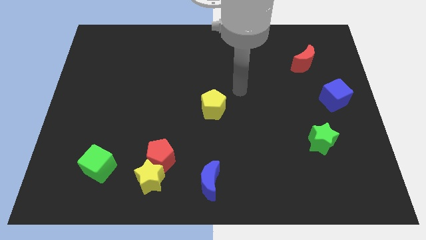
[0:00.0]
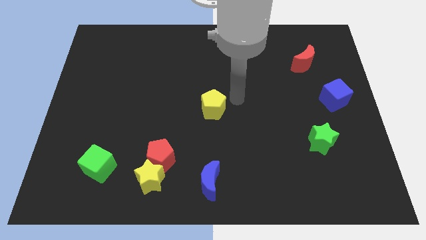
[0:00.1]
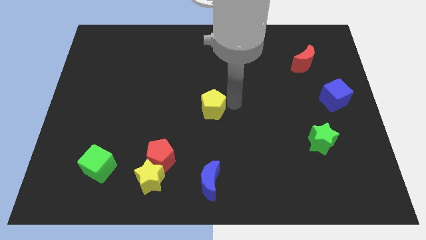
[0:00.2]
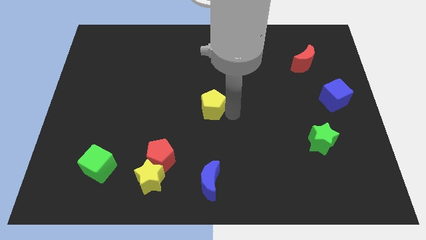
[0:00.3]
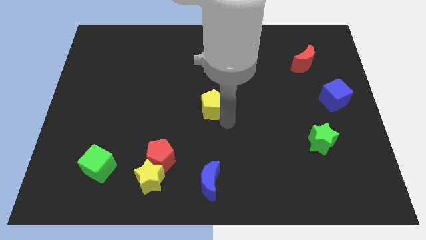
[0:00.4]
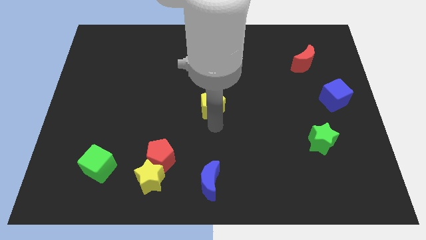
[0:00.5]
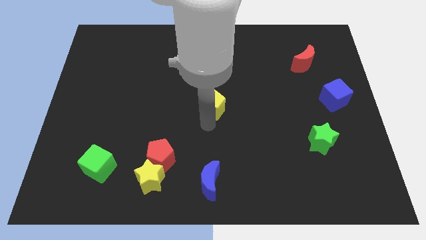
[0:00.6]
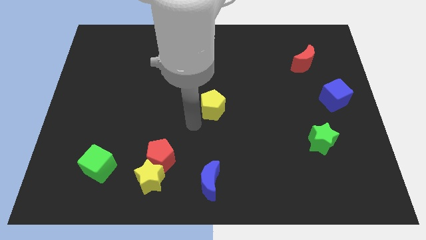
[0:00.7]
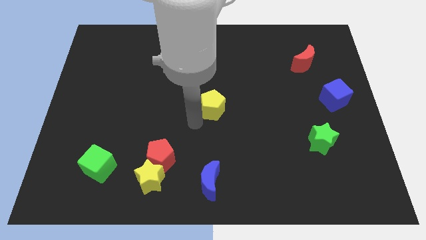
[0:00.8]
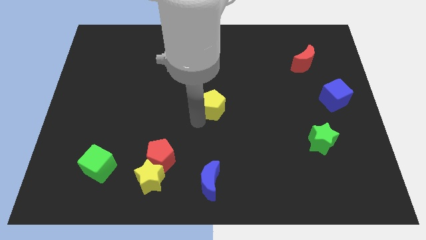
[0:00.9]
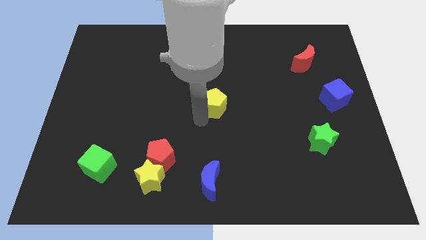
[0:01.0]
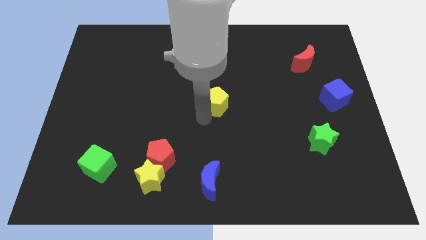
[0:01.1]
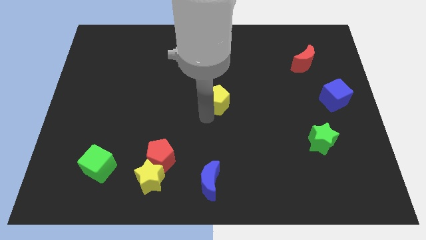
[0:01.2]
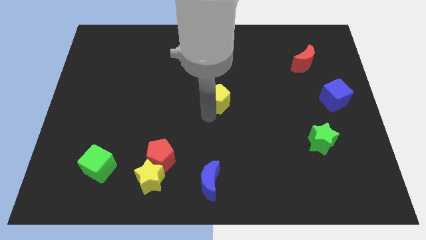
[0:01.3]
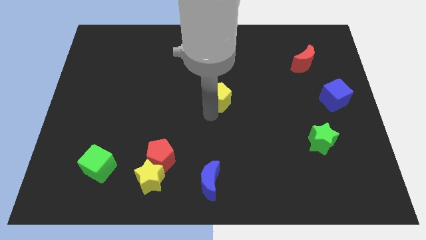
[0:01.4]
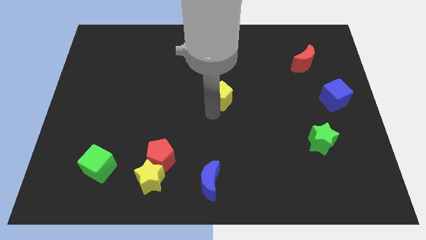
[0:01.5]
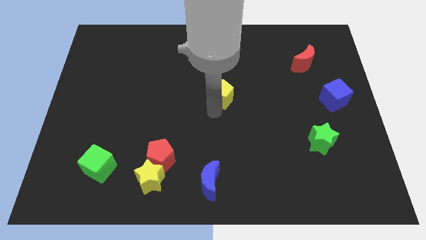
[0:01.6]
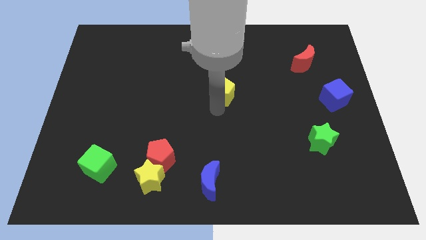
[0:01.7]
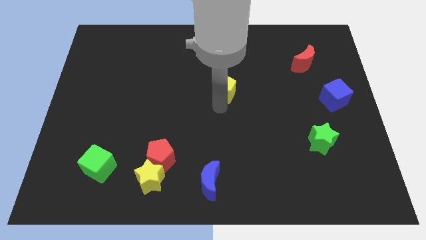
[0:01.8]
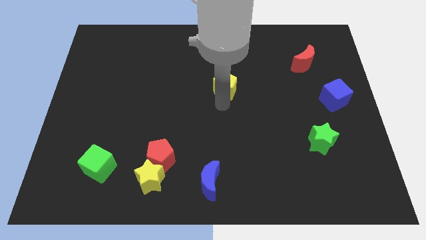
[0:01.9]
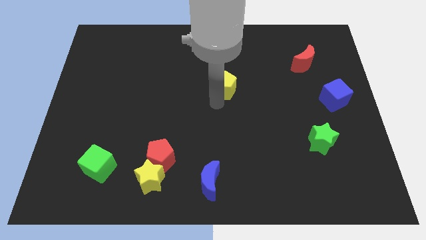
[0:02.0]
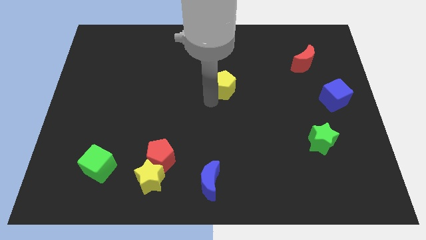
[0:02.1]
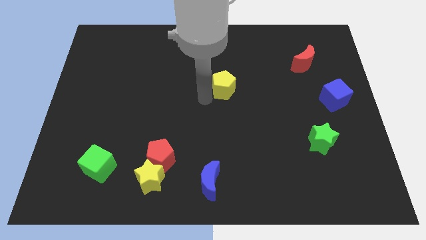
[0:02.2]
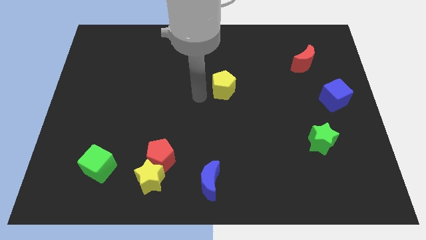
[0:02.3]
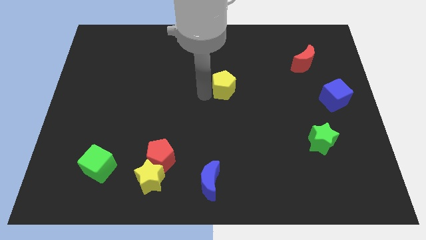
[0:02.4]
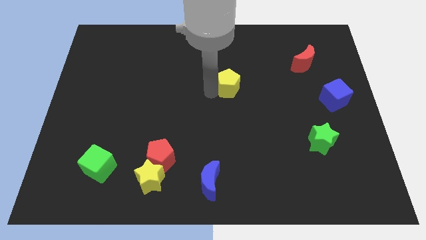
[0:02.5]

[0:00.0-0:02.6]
slightly move the yellow pentagon diagonally up and right

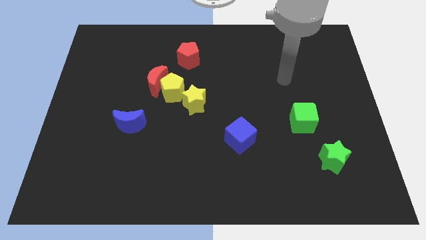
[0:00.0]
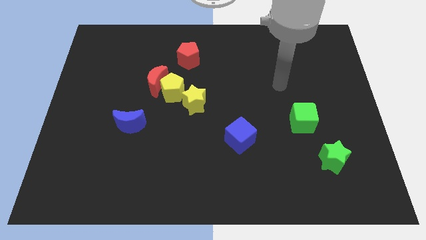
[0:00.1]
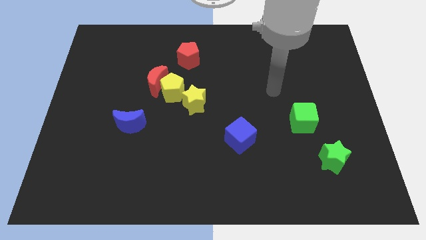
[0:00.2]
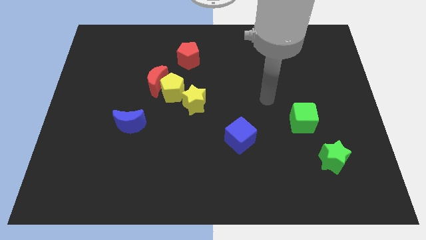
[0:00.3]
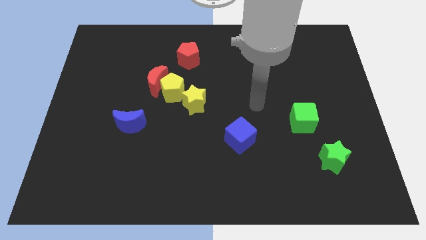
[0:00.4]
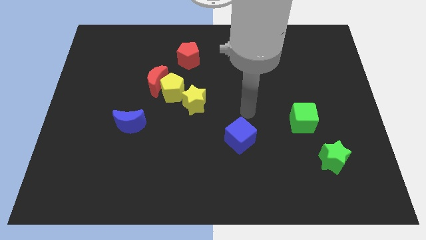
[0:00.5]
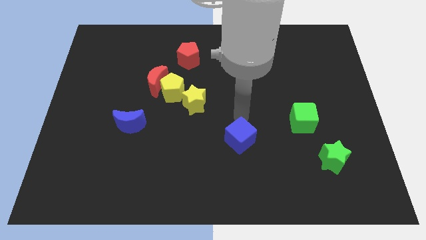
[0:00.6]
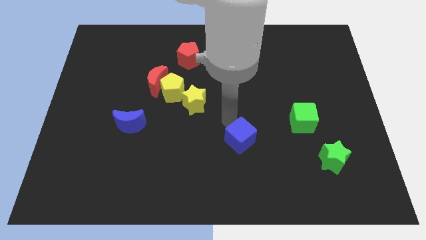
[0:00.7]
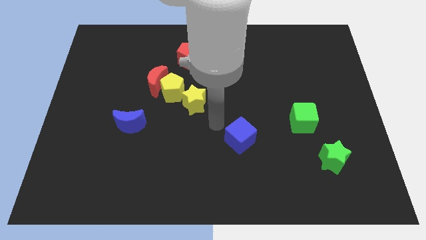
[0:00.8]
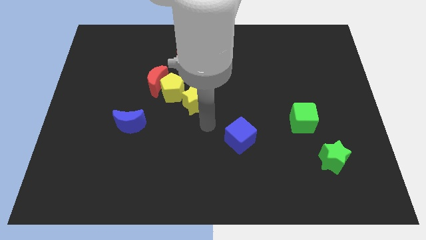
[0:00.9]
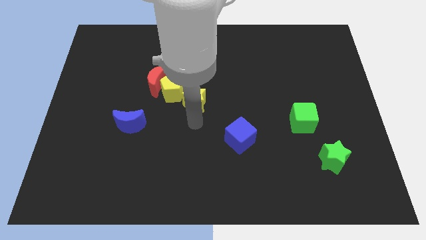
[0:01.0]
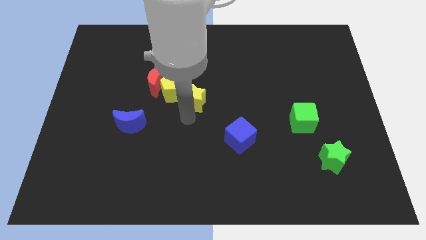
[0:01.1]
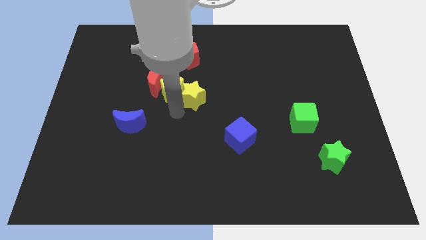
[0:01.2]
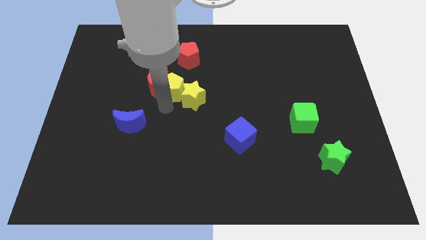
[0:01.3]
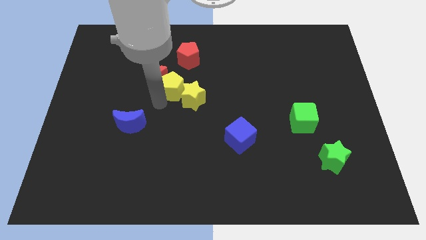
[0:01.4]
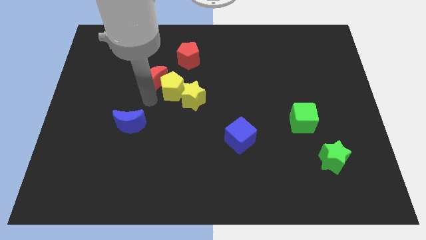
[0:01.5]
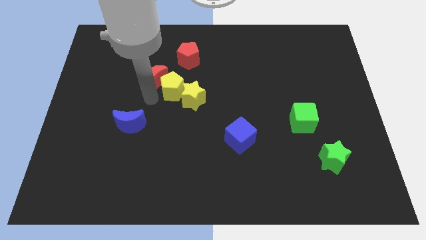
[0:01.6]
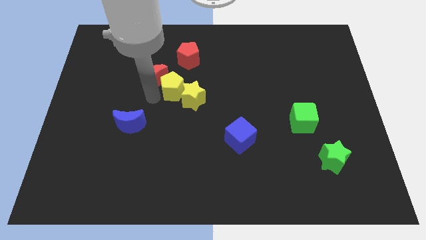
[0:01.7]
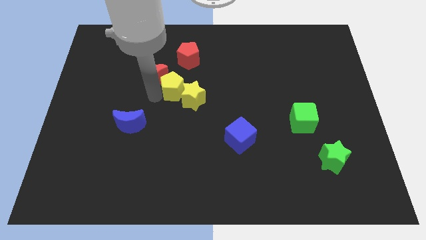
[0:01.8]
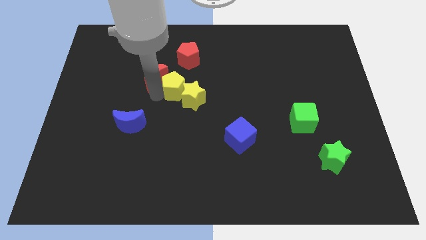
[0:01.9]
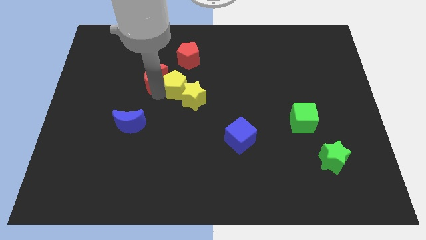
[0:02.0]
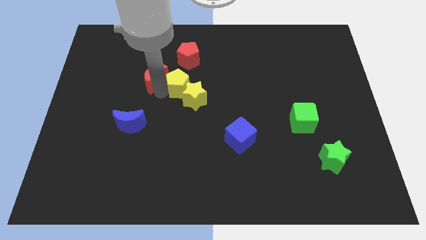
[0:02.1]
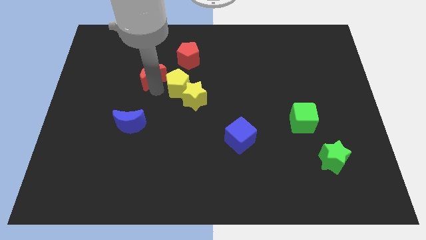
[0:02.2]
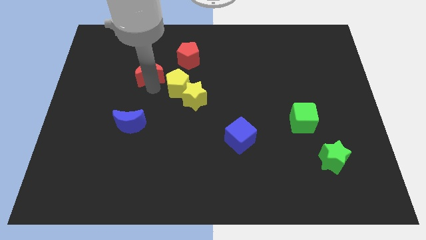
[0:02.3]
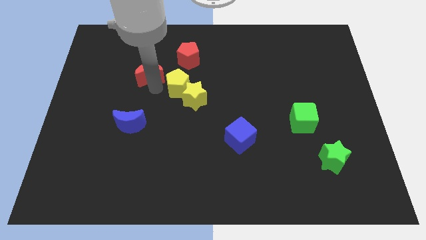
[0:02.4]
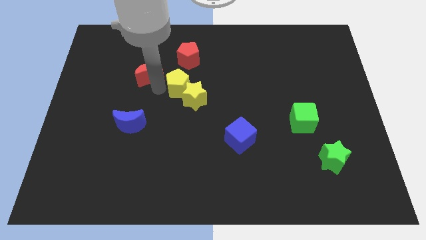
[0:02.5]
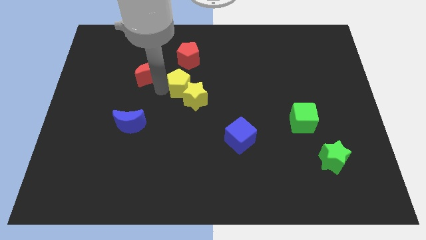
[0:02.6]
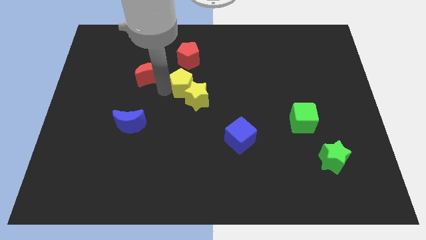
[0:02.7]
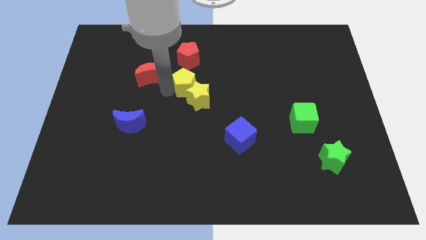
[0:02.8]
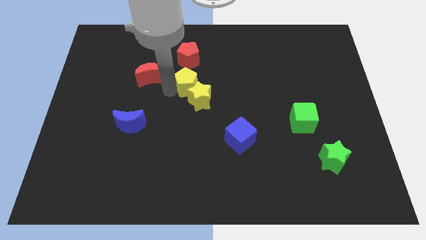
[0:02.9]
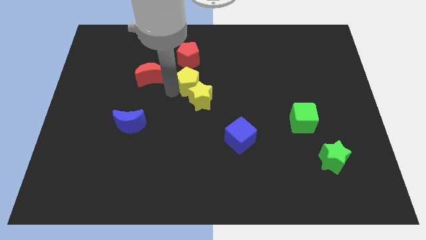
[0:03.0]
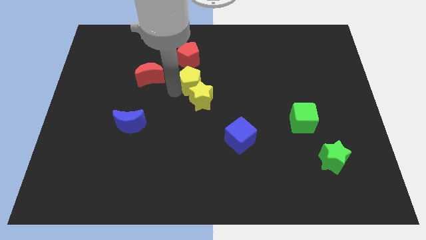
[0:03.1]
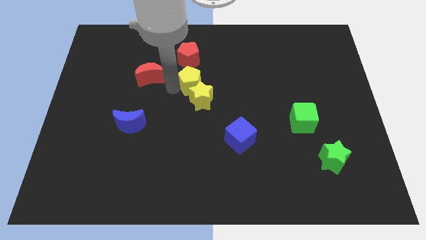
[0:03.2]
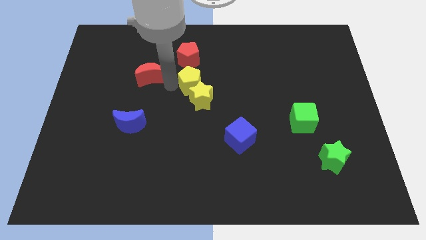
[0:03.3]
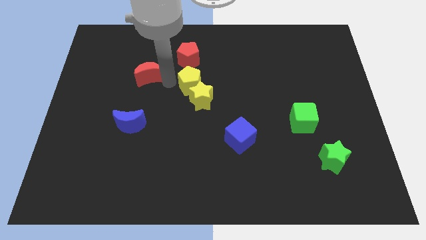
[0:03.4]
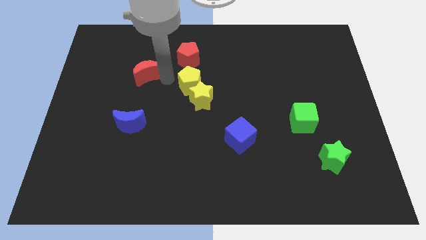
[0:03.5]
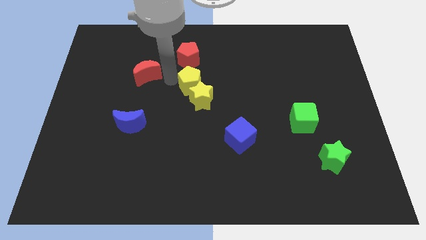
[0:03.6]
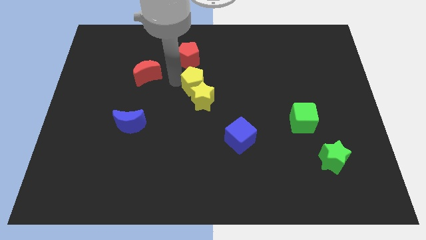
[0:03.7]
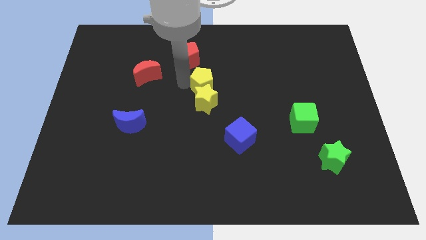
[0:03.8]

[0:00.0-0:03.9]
slightly move the yellow pentagon right

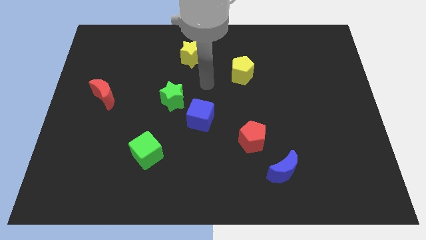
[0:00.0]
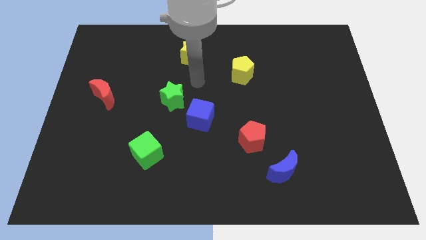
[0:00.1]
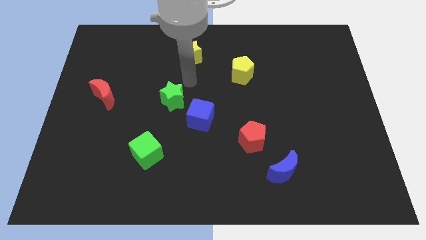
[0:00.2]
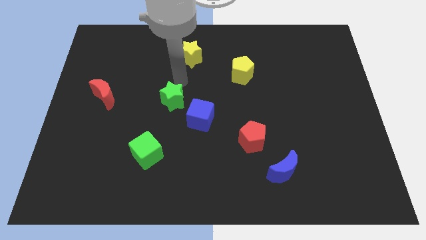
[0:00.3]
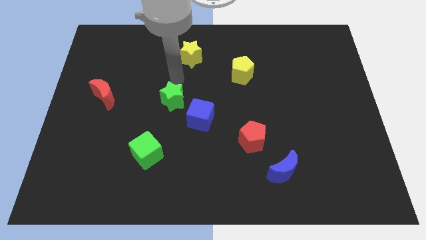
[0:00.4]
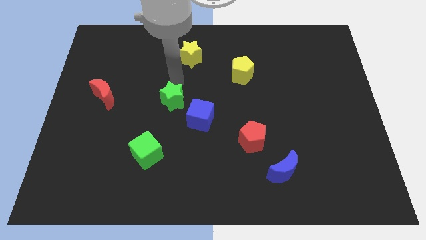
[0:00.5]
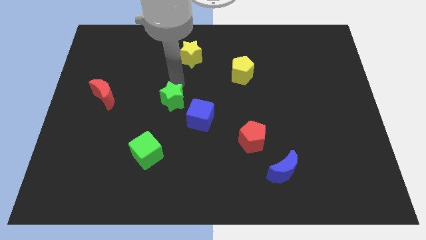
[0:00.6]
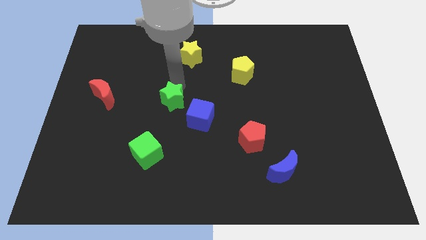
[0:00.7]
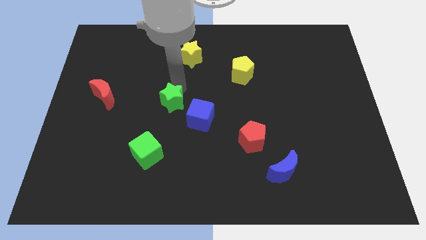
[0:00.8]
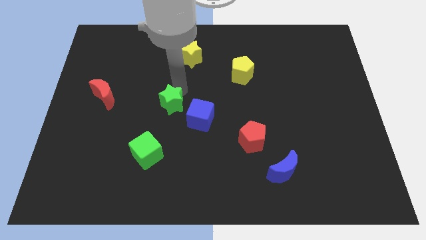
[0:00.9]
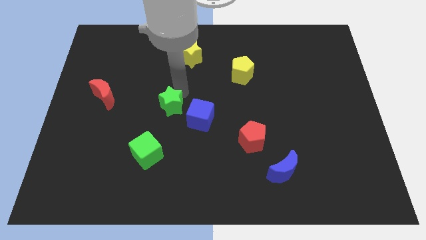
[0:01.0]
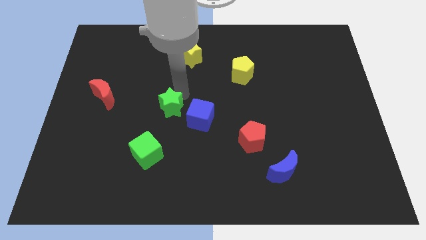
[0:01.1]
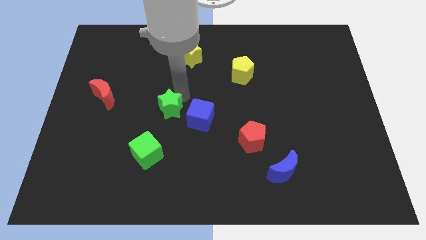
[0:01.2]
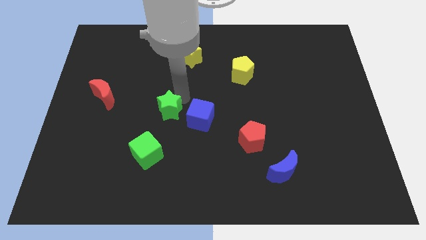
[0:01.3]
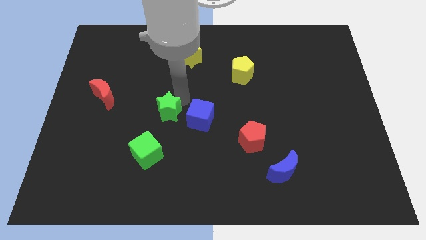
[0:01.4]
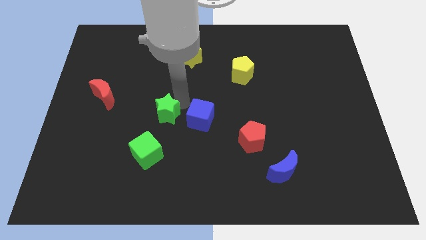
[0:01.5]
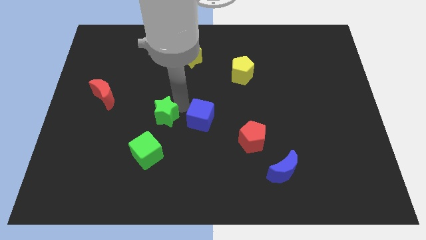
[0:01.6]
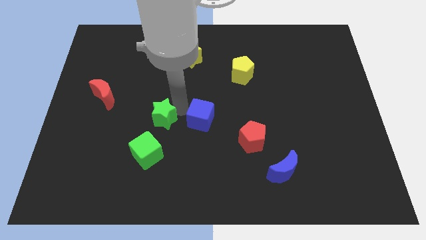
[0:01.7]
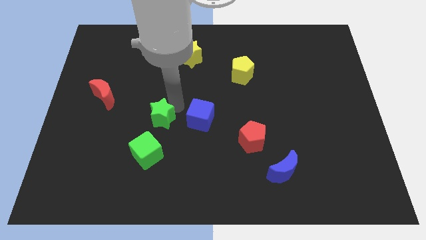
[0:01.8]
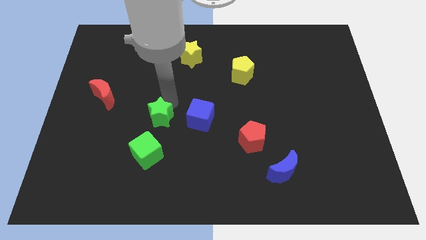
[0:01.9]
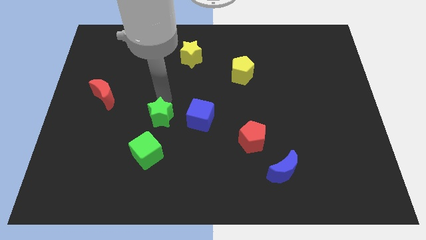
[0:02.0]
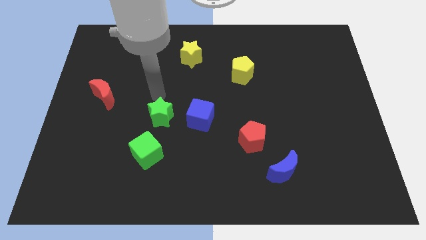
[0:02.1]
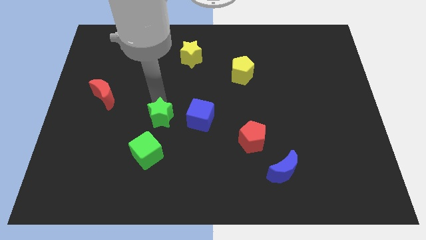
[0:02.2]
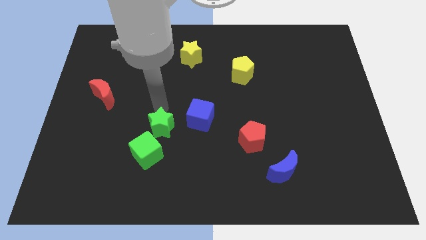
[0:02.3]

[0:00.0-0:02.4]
move the green star down a bit
